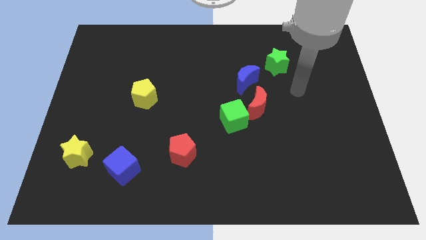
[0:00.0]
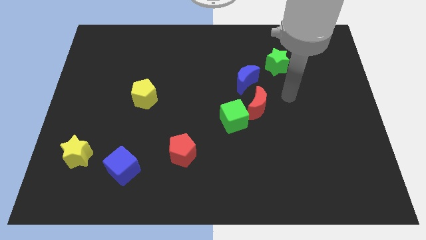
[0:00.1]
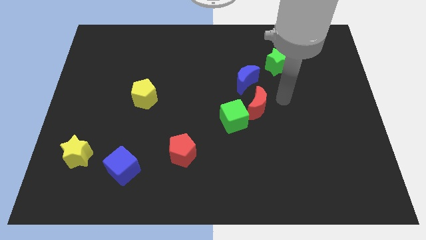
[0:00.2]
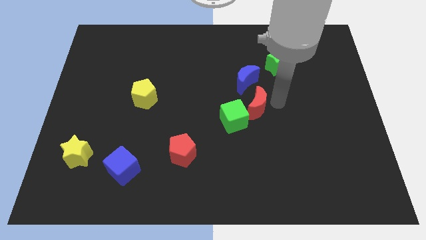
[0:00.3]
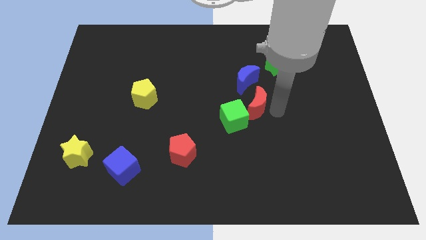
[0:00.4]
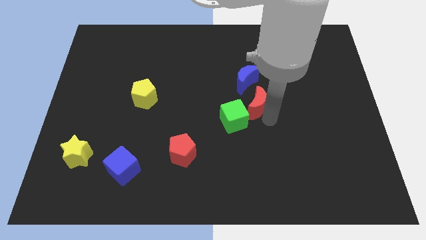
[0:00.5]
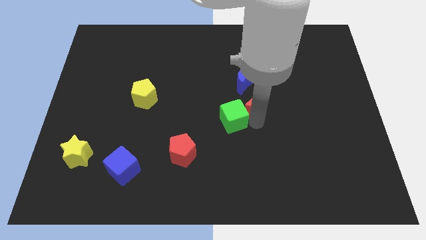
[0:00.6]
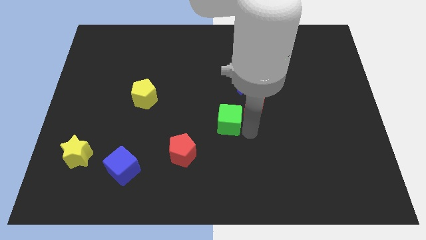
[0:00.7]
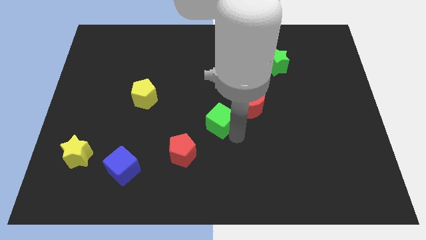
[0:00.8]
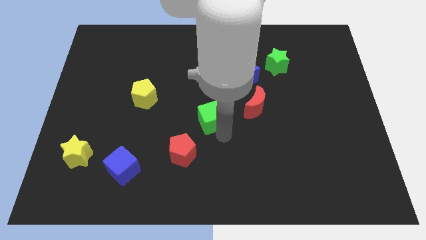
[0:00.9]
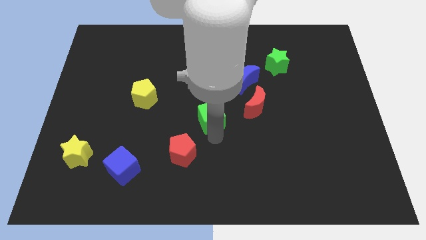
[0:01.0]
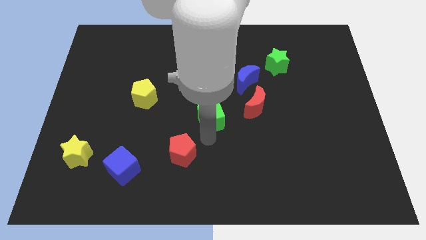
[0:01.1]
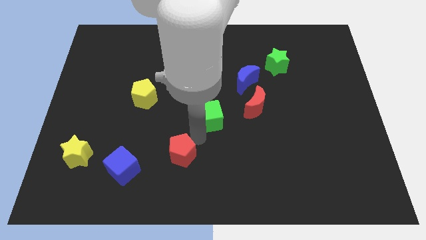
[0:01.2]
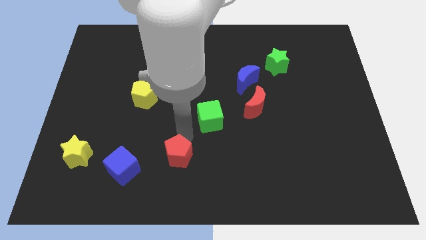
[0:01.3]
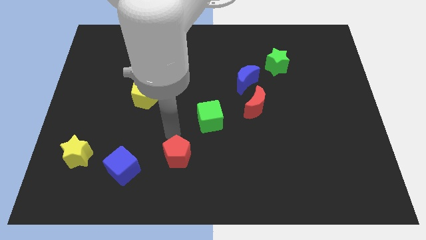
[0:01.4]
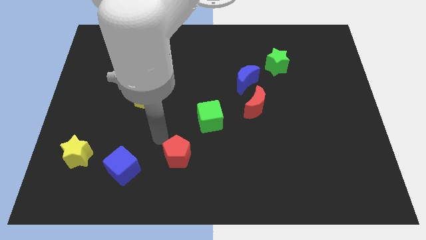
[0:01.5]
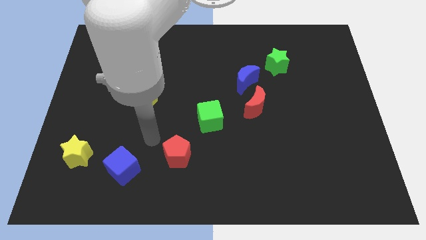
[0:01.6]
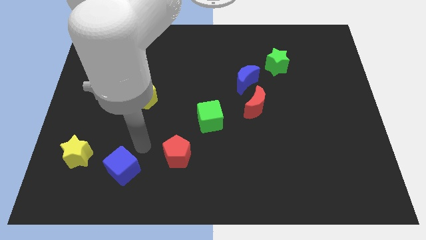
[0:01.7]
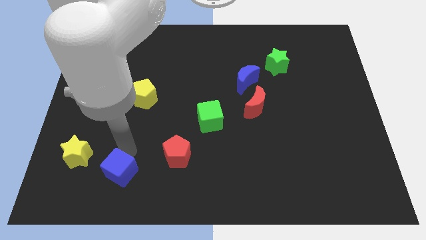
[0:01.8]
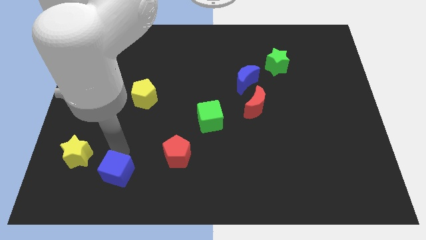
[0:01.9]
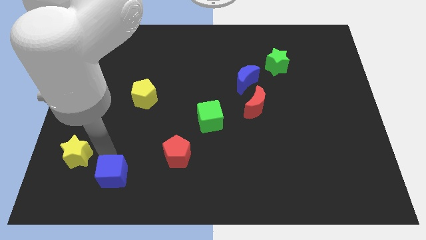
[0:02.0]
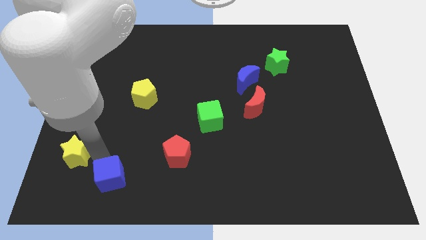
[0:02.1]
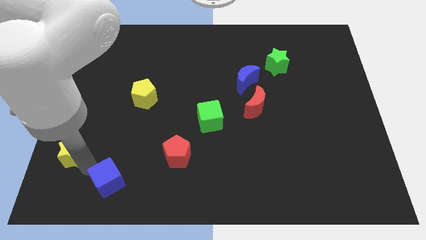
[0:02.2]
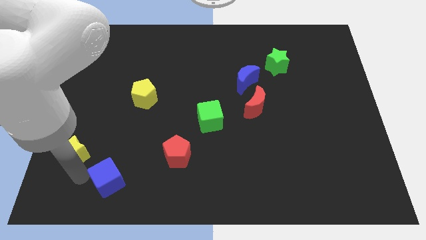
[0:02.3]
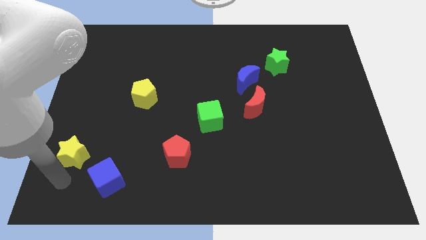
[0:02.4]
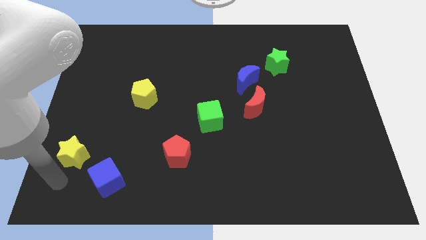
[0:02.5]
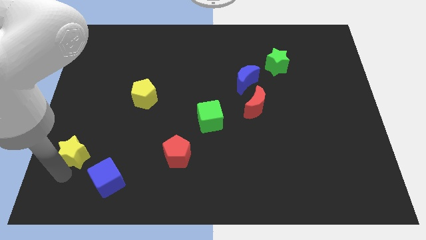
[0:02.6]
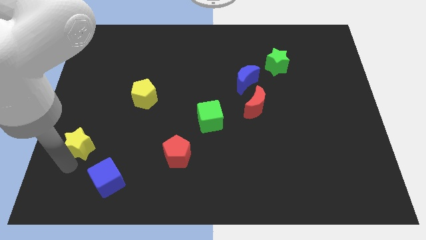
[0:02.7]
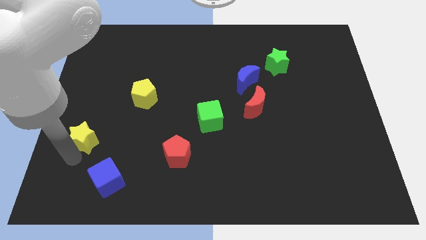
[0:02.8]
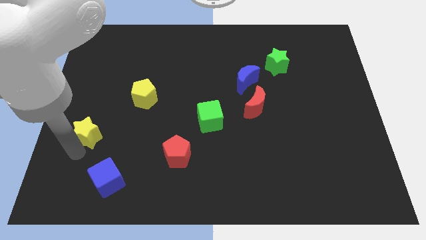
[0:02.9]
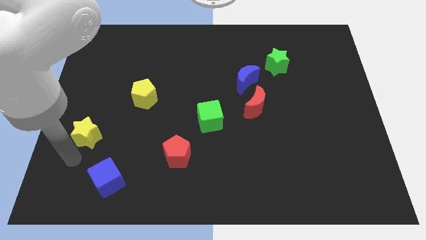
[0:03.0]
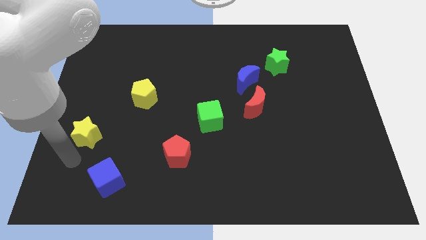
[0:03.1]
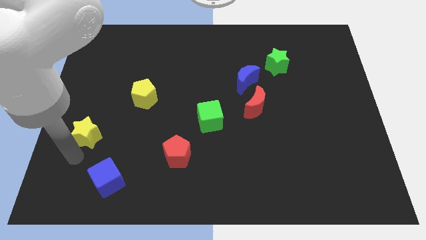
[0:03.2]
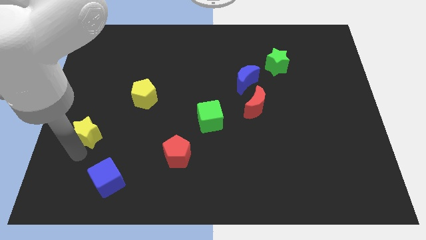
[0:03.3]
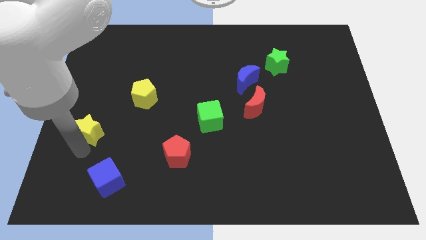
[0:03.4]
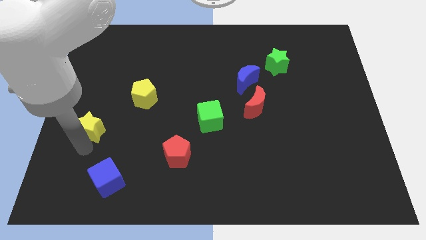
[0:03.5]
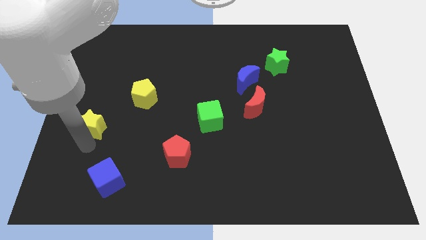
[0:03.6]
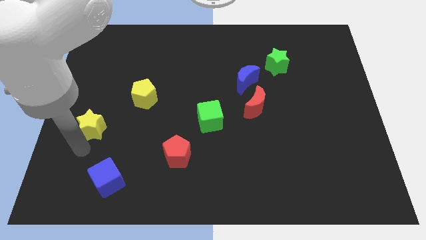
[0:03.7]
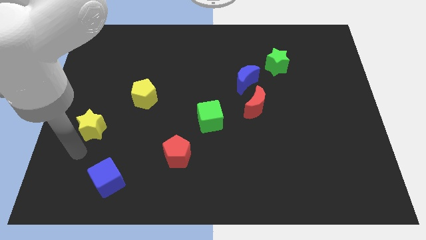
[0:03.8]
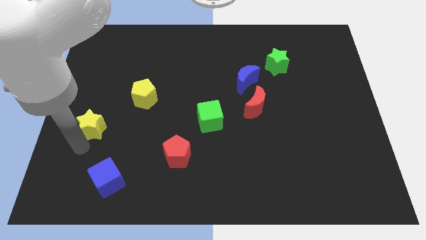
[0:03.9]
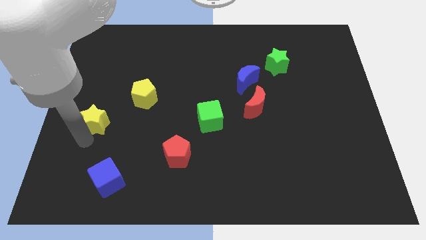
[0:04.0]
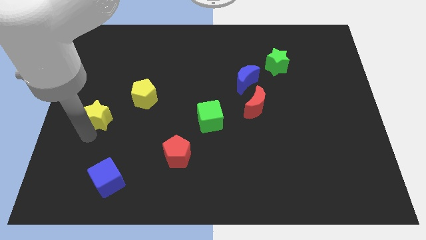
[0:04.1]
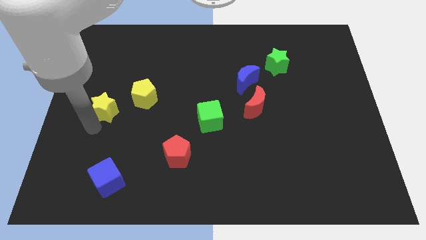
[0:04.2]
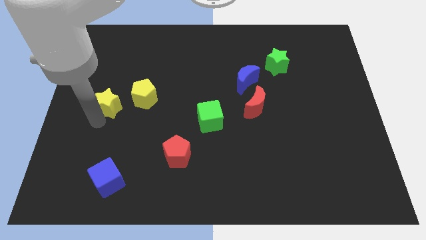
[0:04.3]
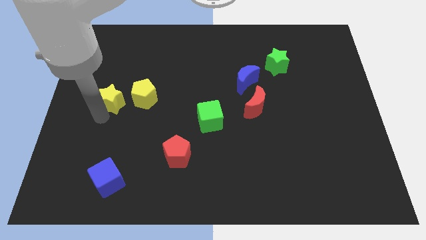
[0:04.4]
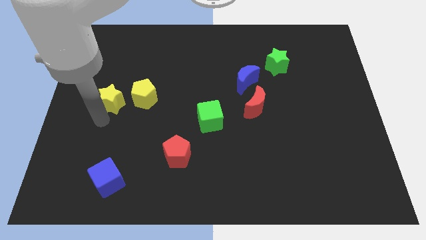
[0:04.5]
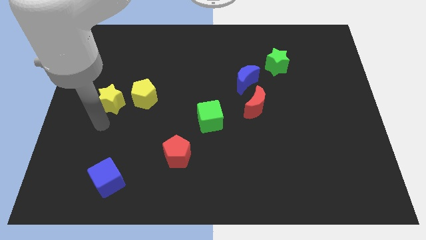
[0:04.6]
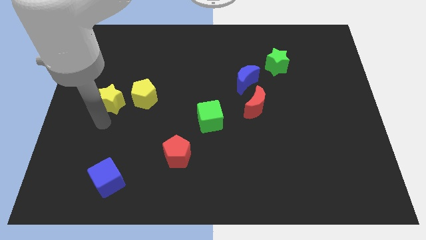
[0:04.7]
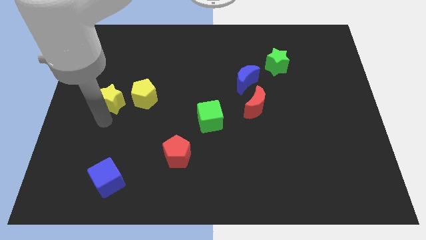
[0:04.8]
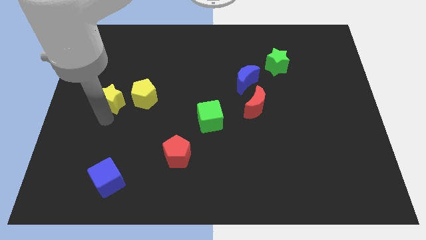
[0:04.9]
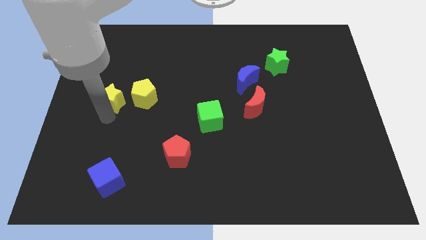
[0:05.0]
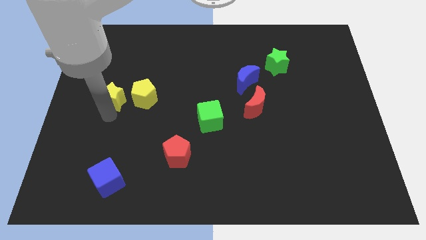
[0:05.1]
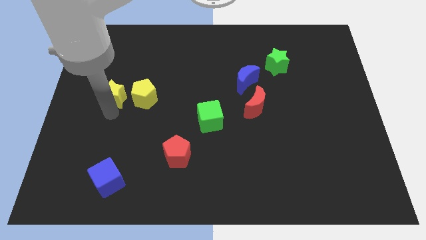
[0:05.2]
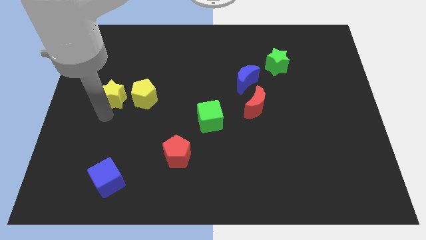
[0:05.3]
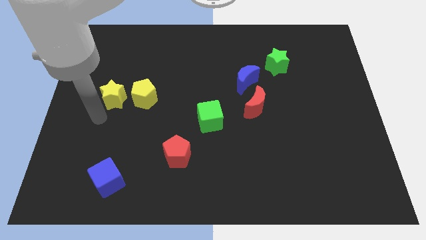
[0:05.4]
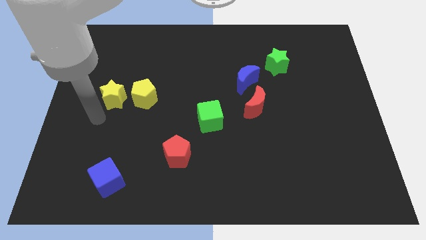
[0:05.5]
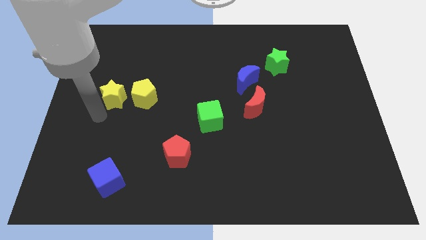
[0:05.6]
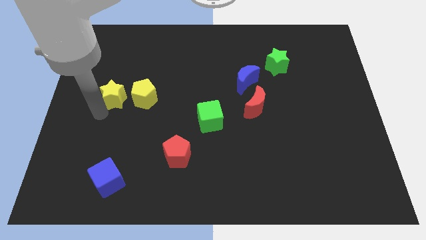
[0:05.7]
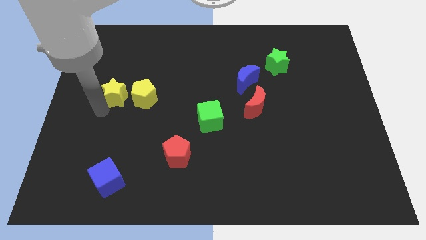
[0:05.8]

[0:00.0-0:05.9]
put the yellow star diagonally up and to the left of the yellow pentagon

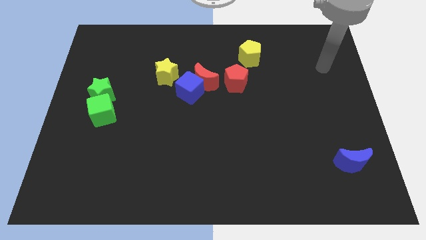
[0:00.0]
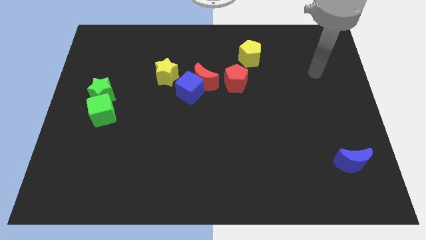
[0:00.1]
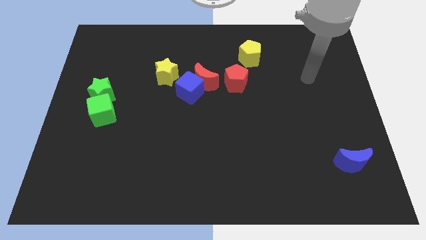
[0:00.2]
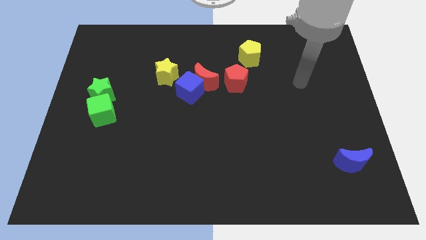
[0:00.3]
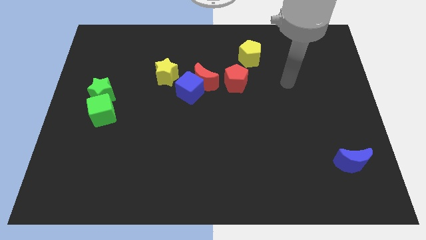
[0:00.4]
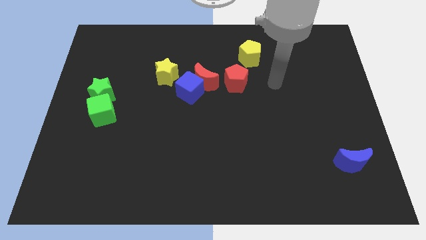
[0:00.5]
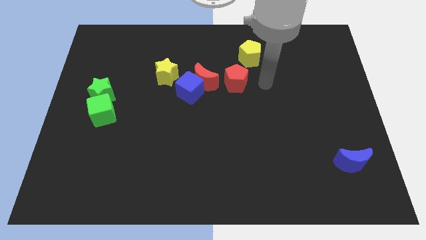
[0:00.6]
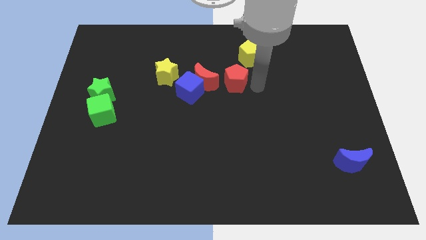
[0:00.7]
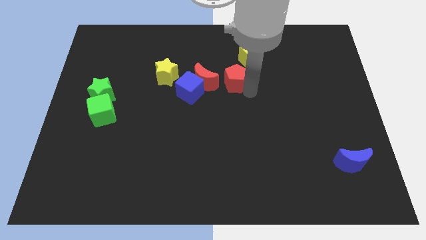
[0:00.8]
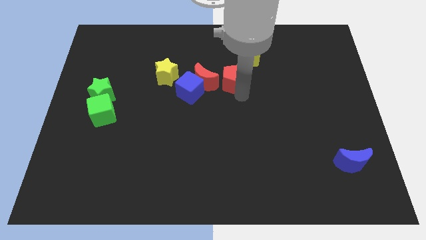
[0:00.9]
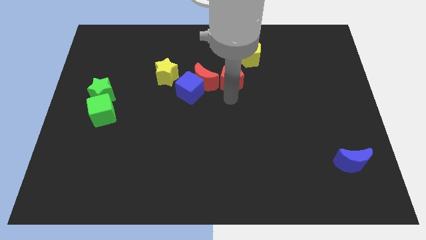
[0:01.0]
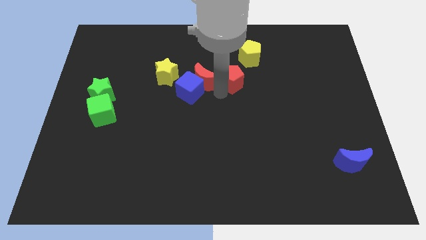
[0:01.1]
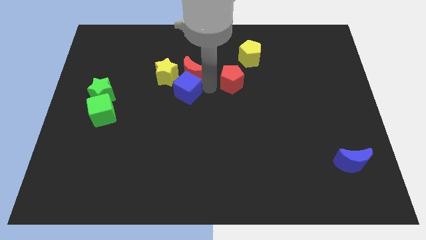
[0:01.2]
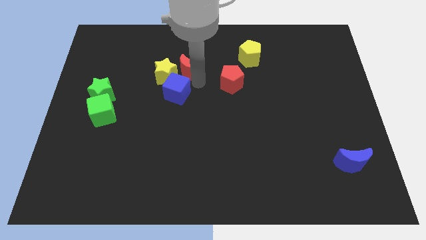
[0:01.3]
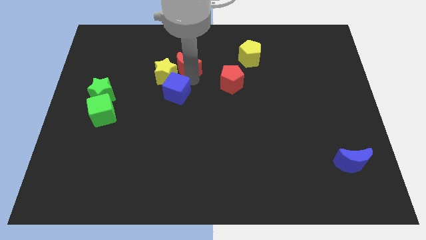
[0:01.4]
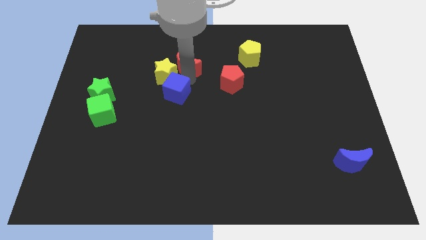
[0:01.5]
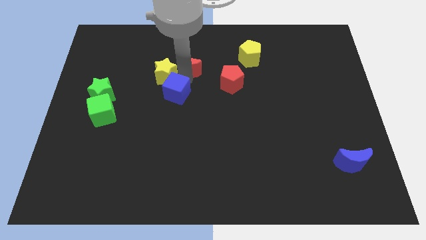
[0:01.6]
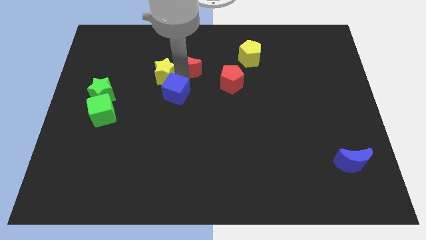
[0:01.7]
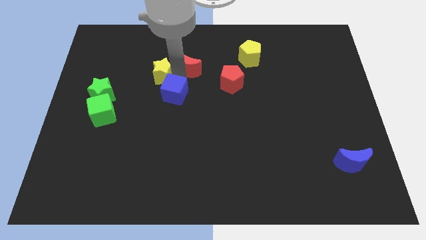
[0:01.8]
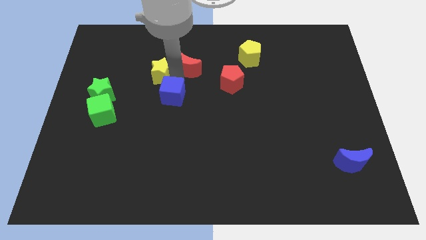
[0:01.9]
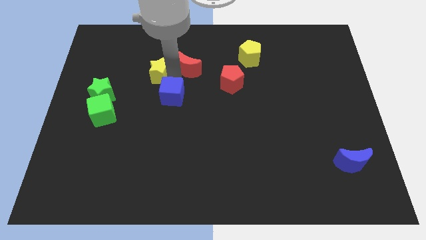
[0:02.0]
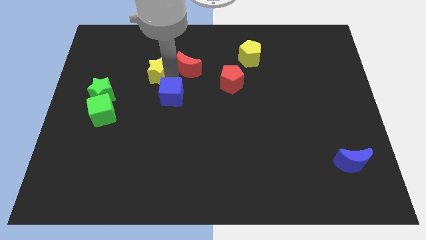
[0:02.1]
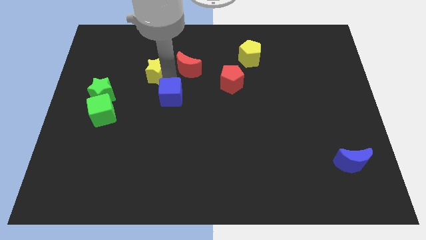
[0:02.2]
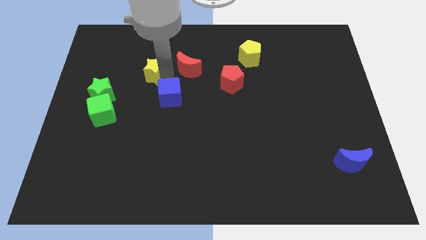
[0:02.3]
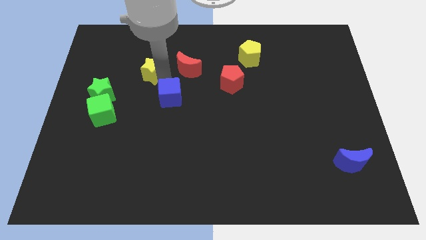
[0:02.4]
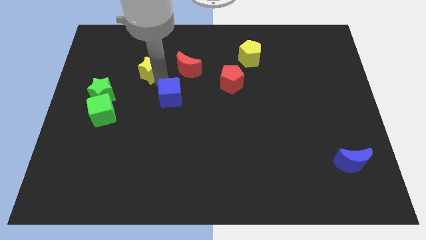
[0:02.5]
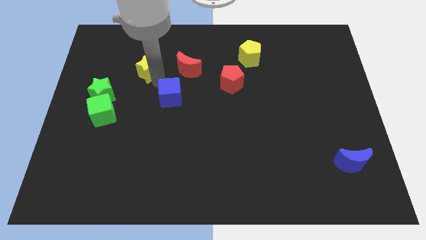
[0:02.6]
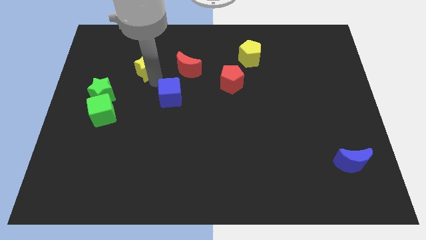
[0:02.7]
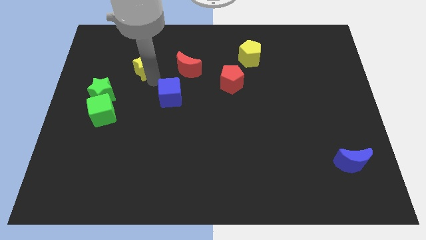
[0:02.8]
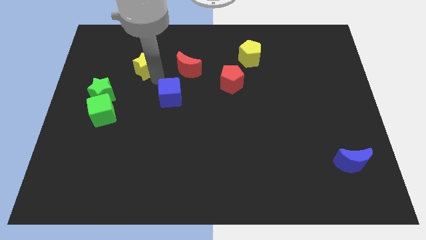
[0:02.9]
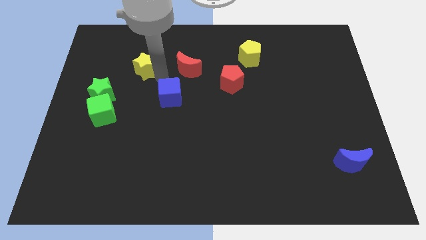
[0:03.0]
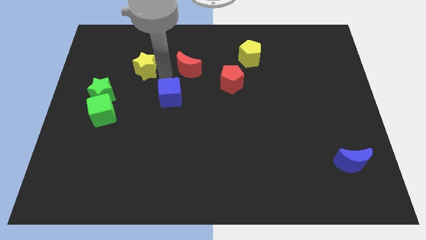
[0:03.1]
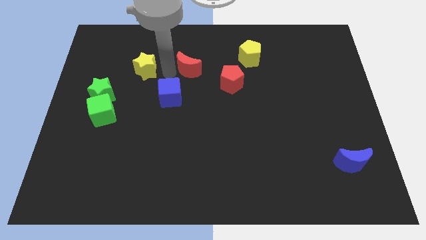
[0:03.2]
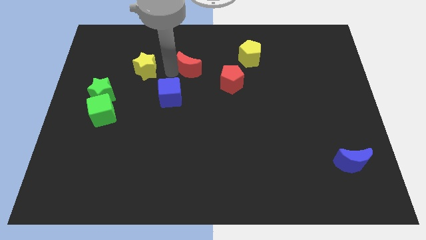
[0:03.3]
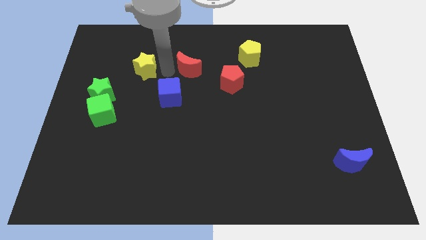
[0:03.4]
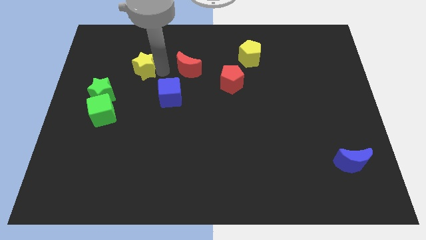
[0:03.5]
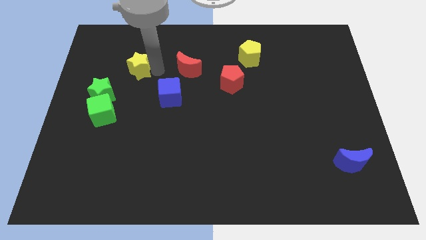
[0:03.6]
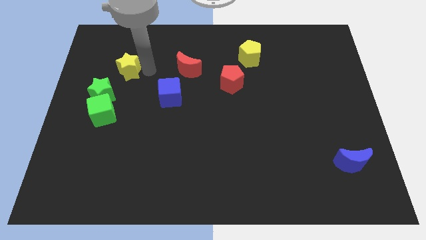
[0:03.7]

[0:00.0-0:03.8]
slide the yellow star to the top of the green star
